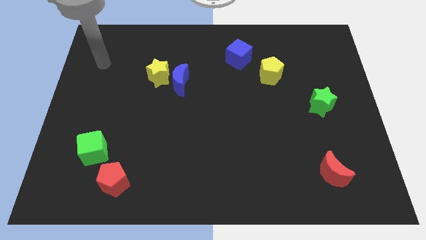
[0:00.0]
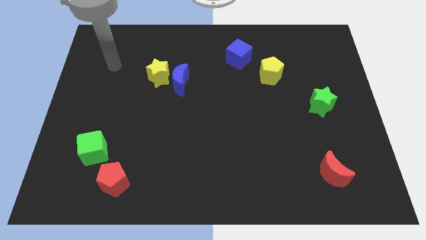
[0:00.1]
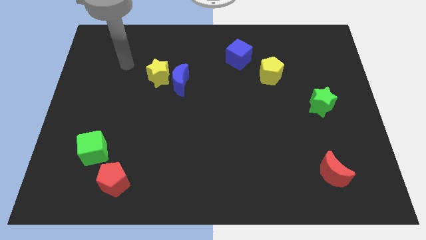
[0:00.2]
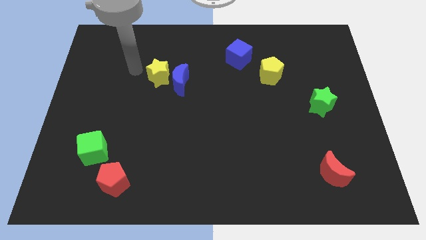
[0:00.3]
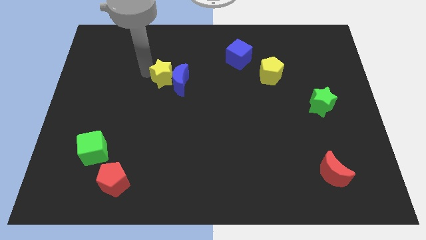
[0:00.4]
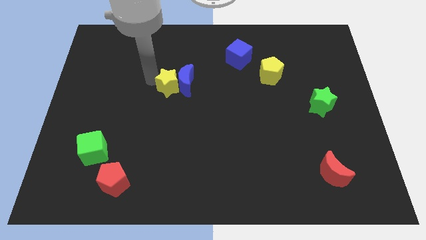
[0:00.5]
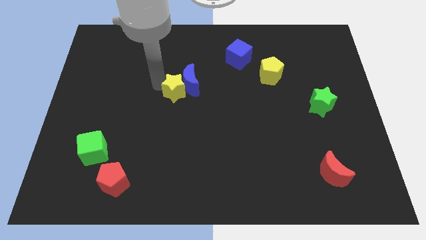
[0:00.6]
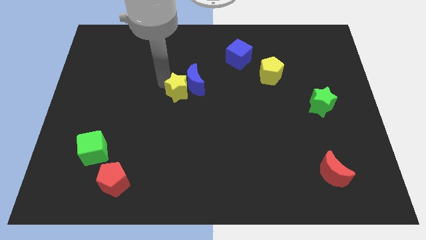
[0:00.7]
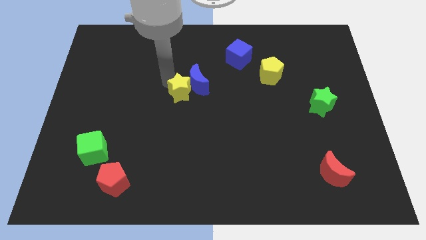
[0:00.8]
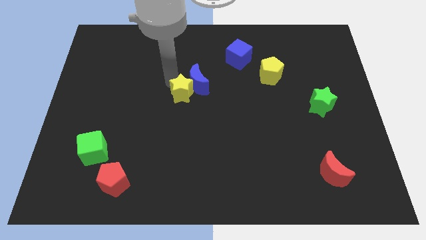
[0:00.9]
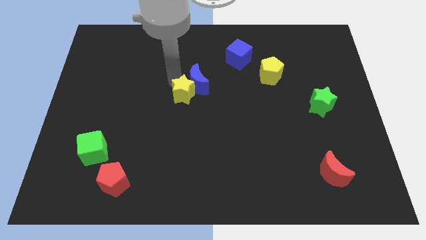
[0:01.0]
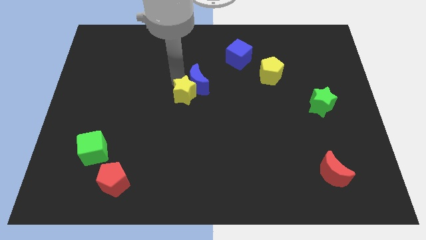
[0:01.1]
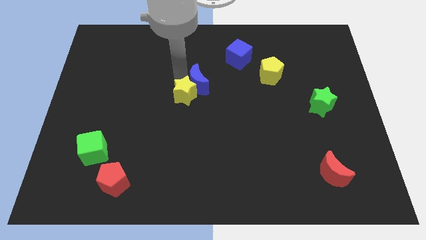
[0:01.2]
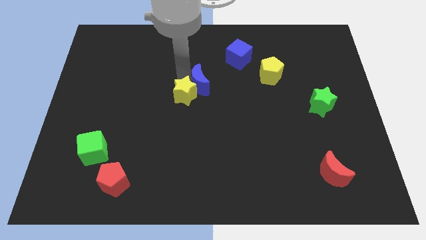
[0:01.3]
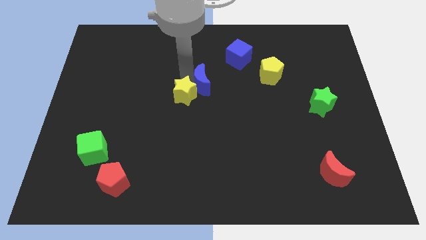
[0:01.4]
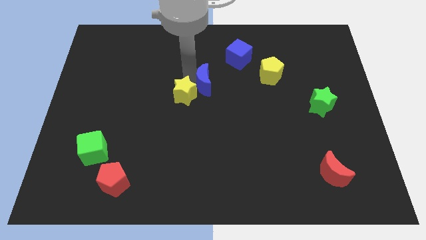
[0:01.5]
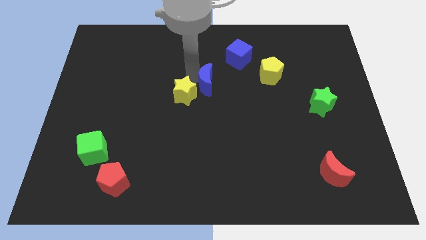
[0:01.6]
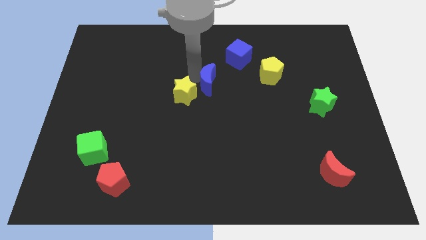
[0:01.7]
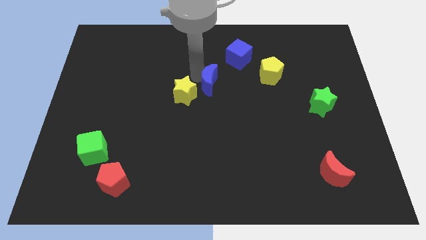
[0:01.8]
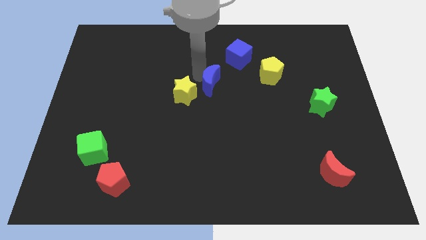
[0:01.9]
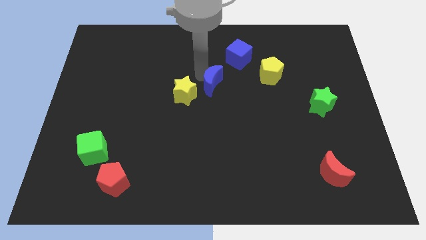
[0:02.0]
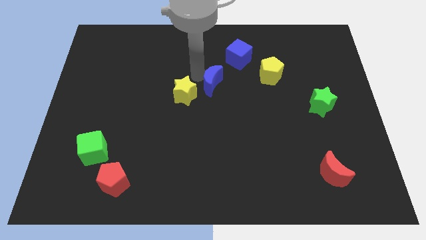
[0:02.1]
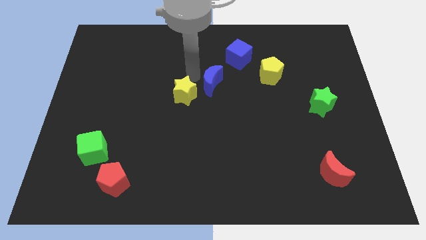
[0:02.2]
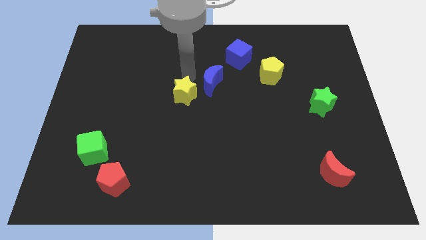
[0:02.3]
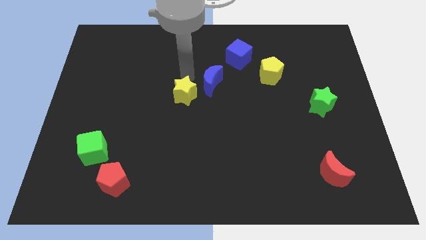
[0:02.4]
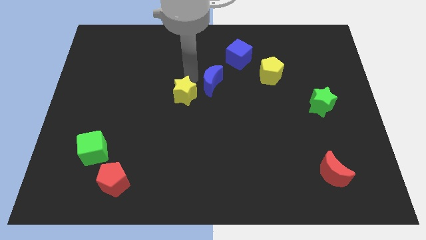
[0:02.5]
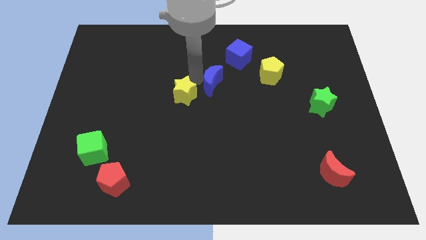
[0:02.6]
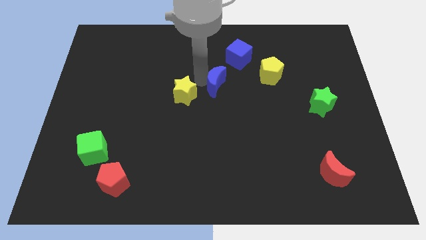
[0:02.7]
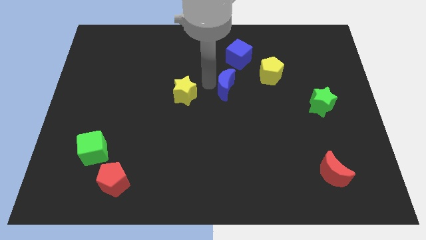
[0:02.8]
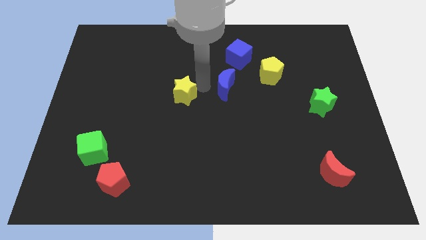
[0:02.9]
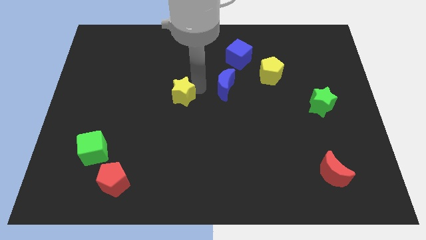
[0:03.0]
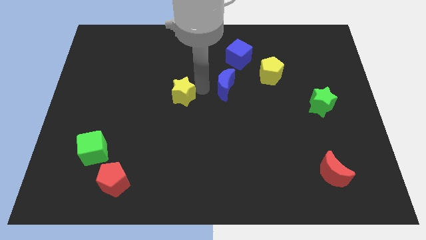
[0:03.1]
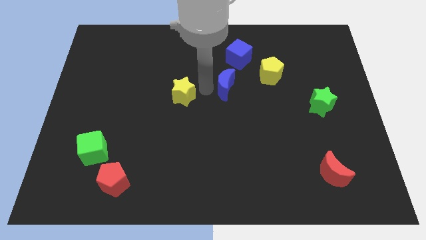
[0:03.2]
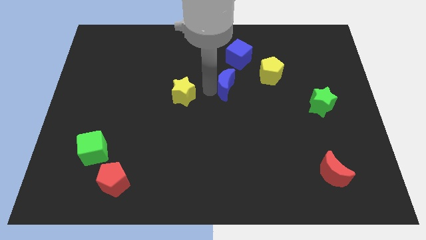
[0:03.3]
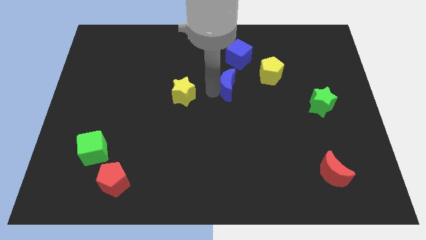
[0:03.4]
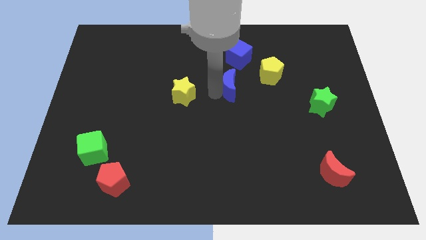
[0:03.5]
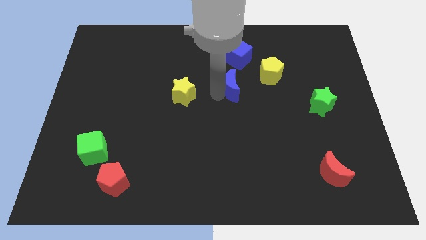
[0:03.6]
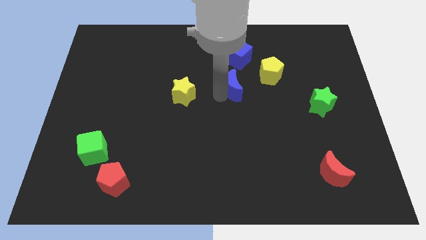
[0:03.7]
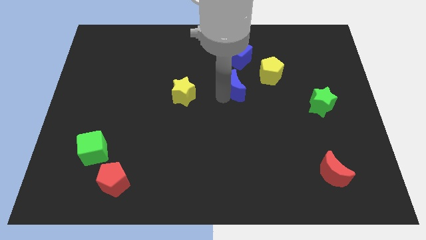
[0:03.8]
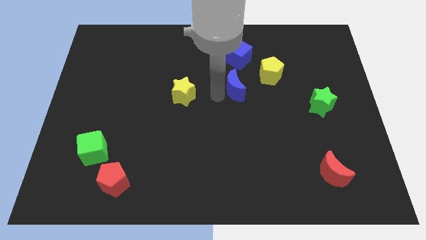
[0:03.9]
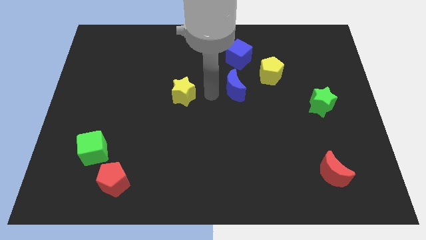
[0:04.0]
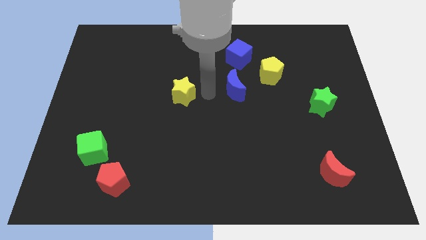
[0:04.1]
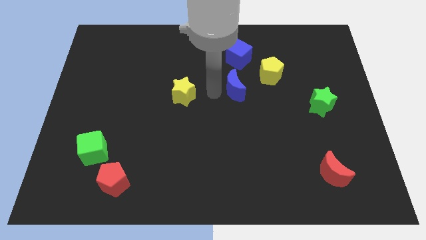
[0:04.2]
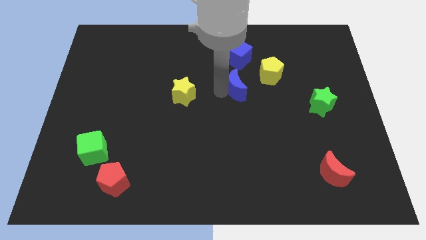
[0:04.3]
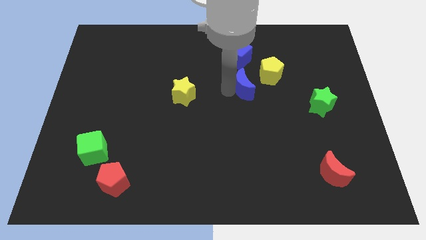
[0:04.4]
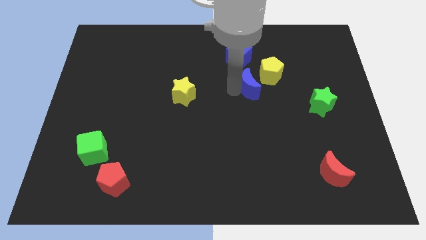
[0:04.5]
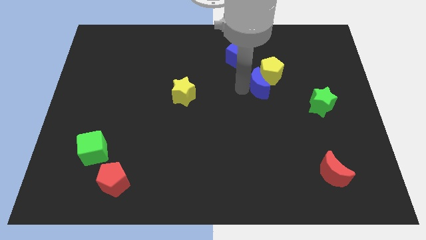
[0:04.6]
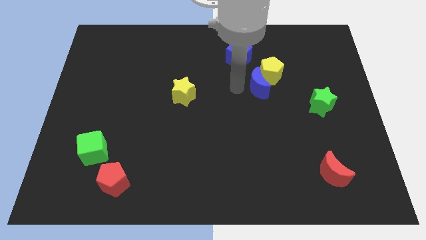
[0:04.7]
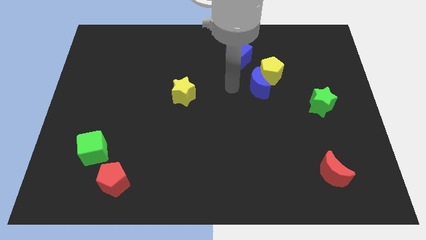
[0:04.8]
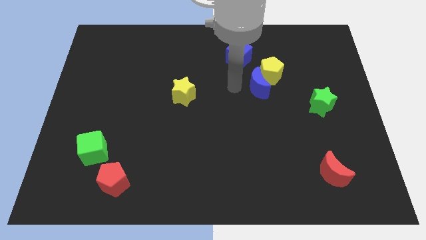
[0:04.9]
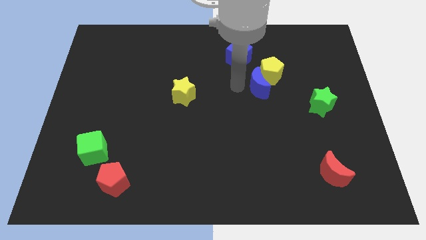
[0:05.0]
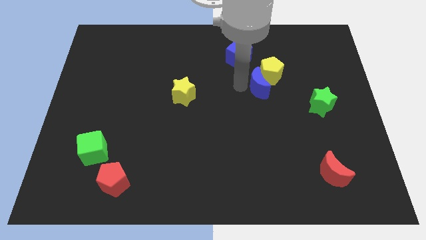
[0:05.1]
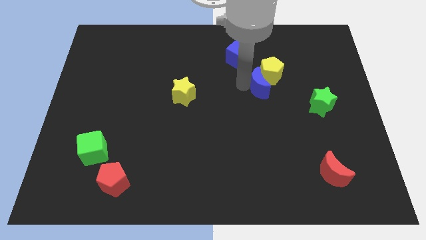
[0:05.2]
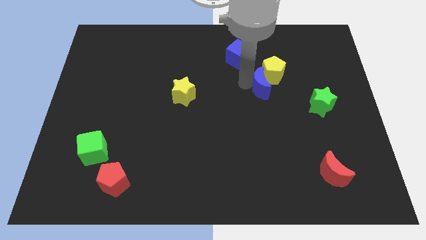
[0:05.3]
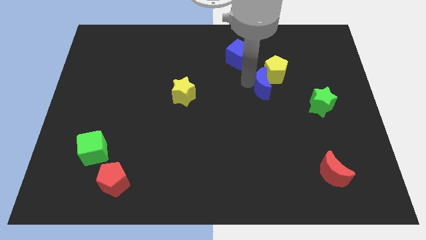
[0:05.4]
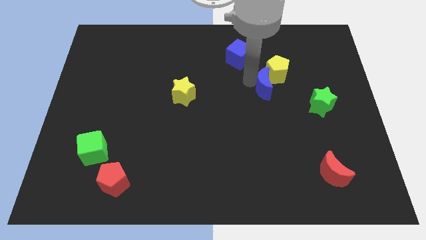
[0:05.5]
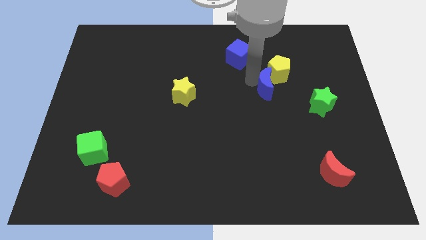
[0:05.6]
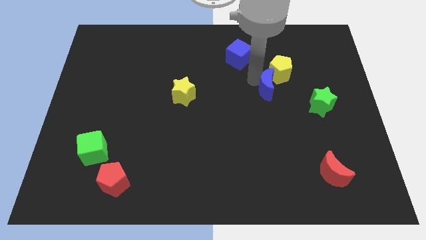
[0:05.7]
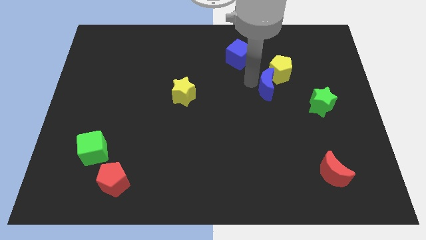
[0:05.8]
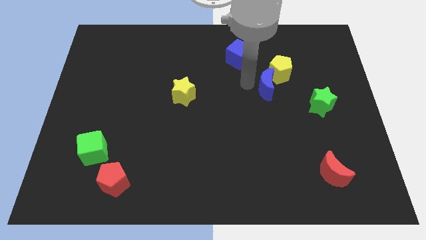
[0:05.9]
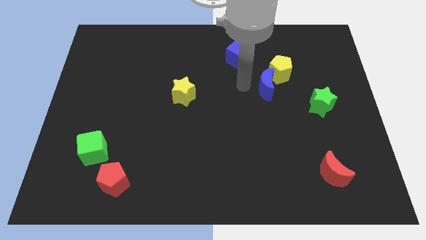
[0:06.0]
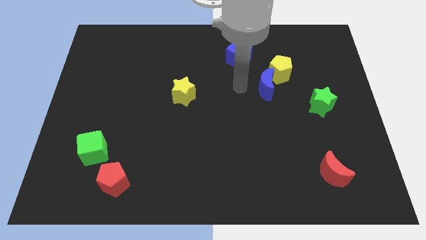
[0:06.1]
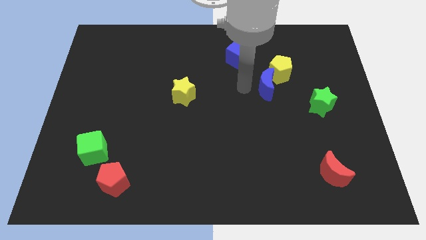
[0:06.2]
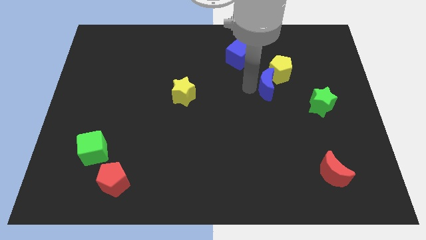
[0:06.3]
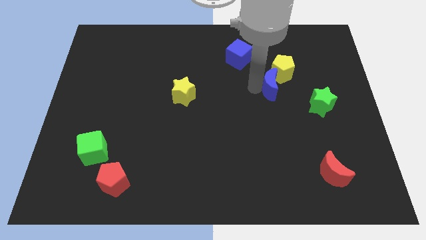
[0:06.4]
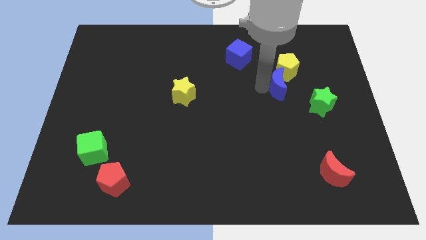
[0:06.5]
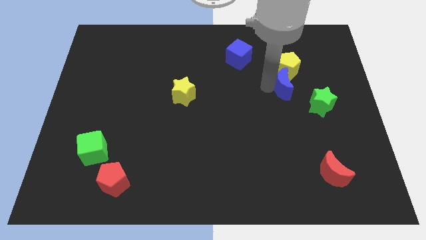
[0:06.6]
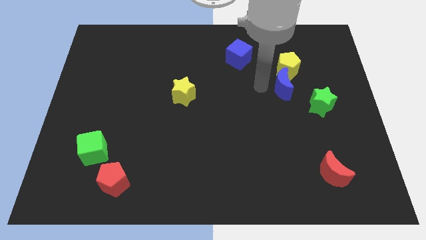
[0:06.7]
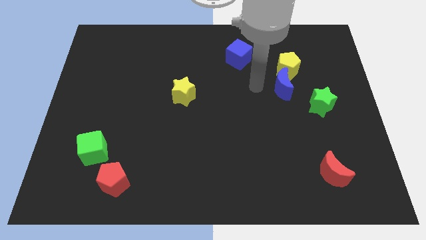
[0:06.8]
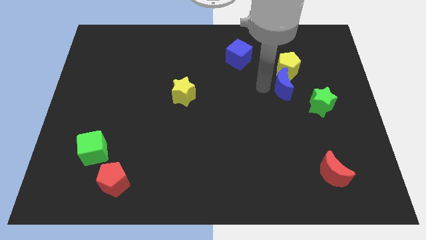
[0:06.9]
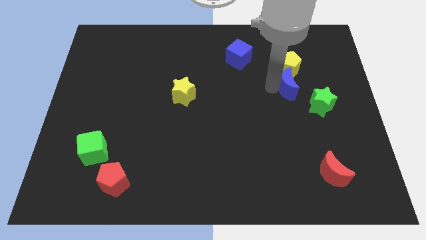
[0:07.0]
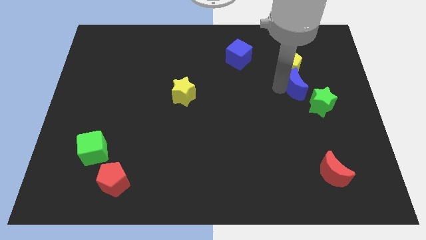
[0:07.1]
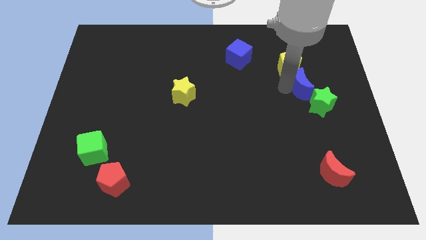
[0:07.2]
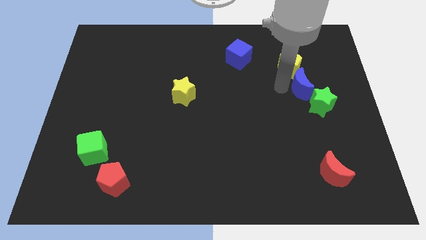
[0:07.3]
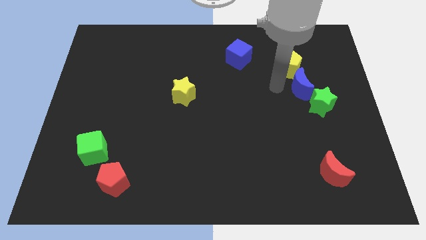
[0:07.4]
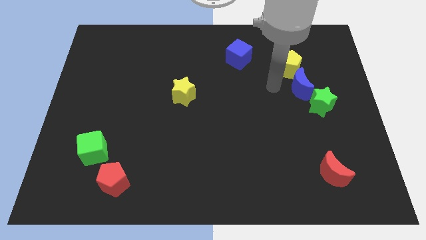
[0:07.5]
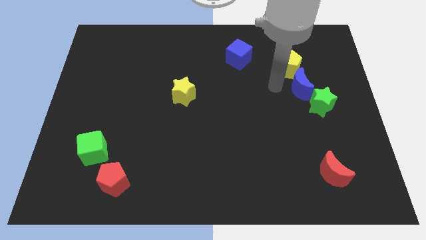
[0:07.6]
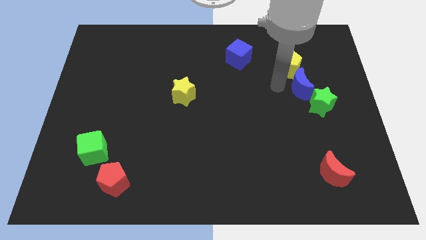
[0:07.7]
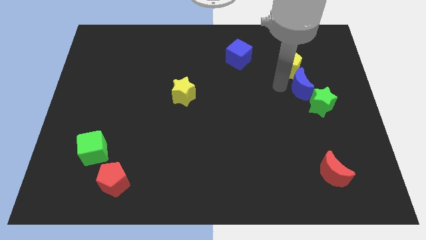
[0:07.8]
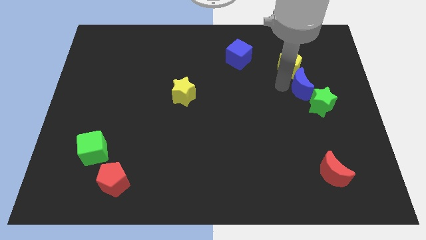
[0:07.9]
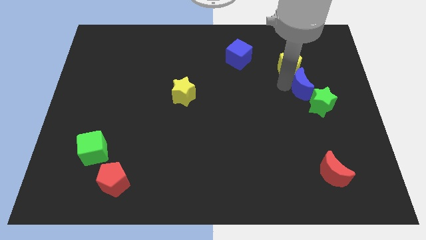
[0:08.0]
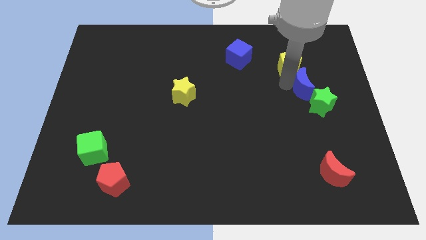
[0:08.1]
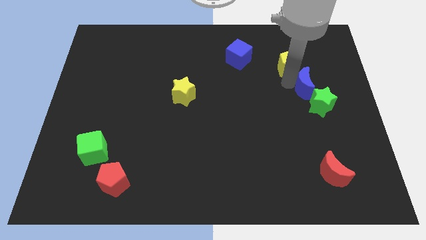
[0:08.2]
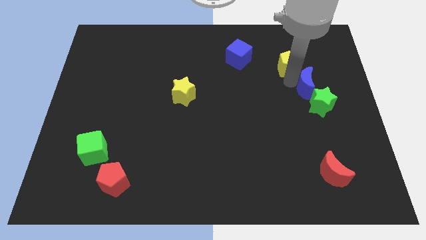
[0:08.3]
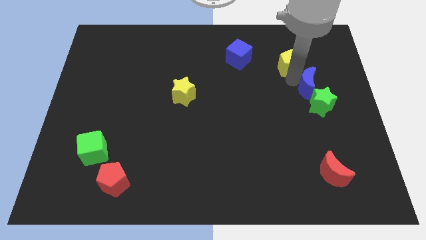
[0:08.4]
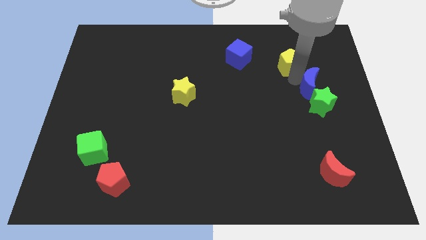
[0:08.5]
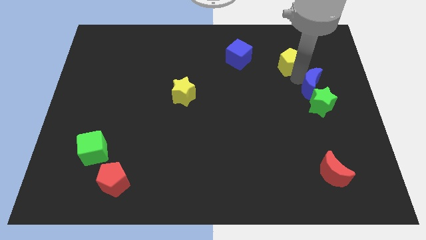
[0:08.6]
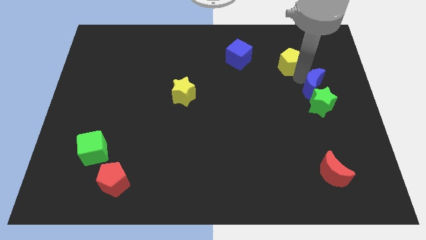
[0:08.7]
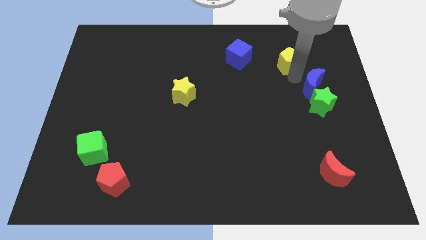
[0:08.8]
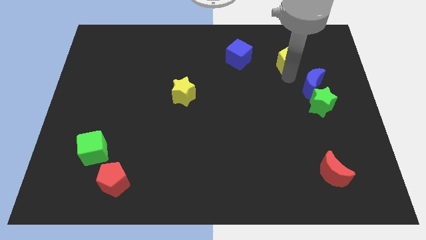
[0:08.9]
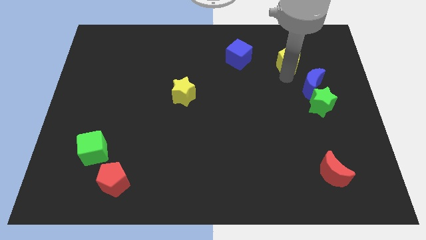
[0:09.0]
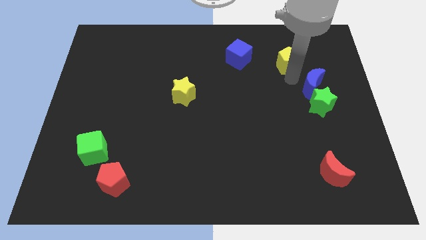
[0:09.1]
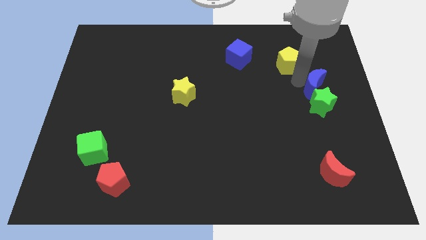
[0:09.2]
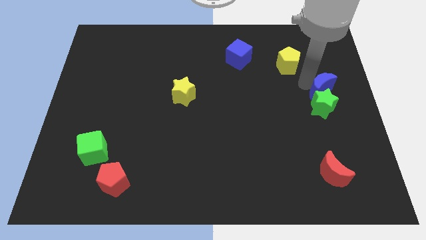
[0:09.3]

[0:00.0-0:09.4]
move the blue moon to the center right
